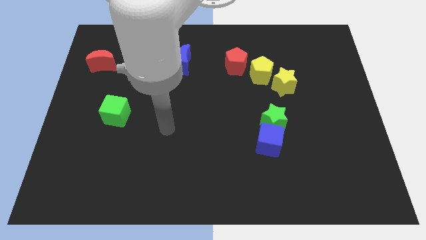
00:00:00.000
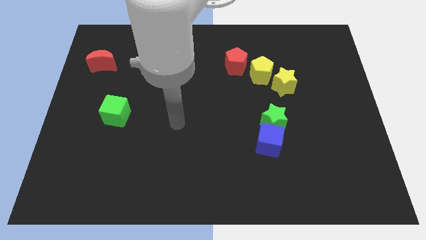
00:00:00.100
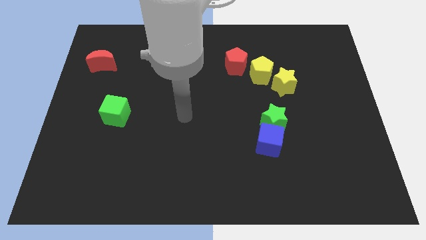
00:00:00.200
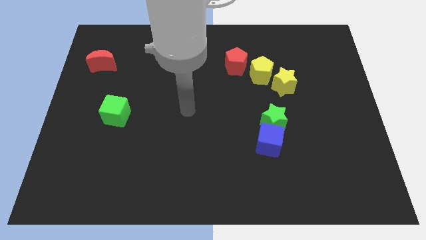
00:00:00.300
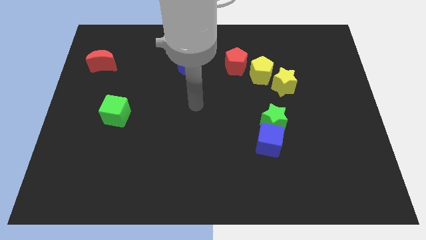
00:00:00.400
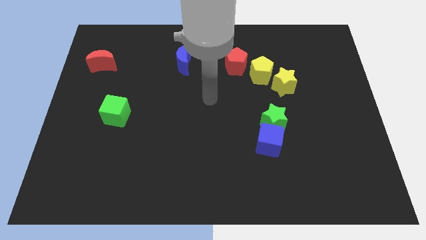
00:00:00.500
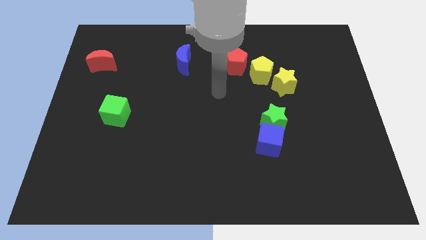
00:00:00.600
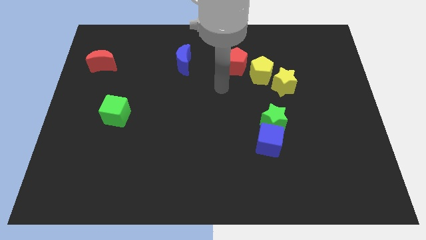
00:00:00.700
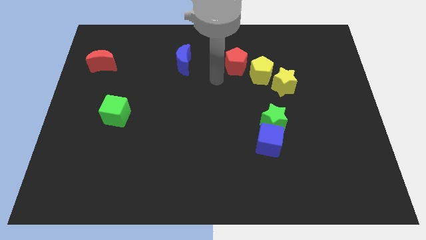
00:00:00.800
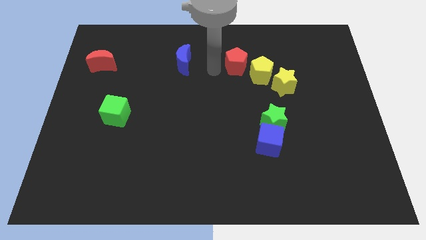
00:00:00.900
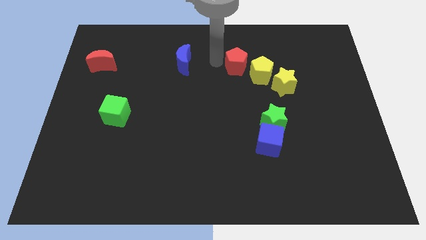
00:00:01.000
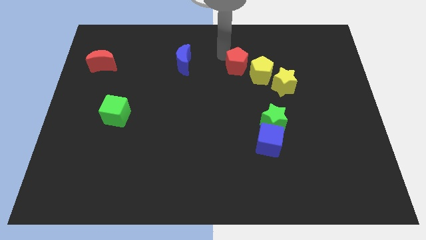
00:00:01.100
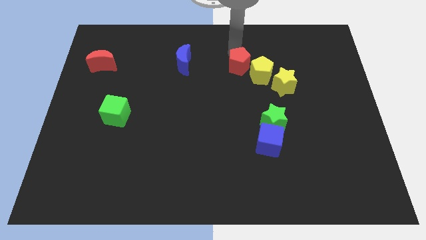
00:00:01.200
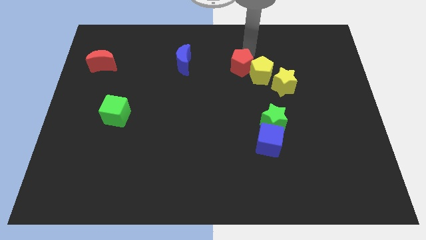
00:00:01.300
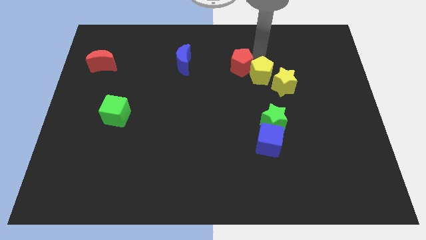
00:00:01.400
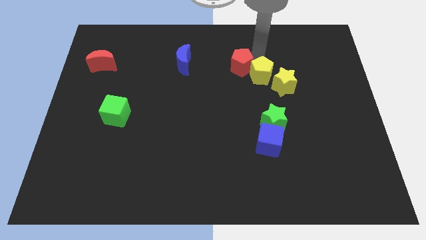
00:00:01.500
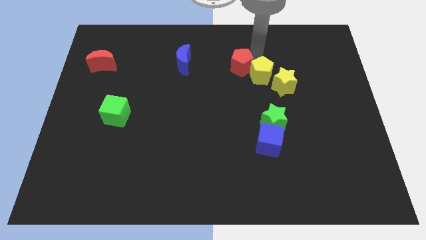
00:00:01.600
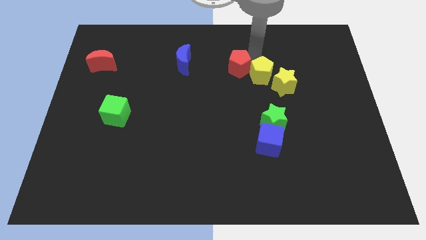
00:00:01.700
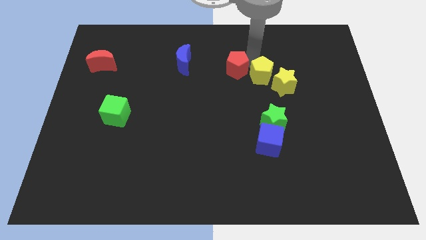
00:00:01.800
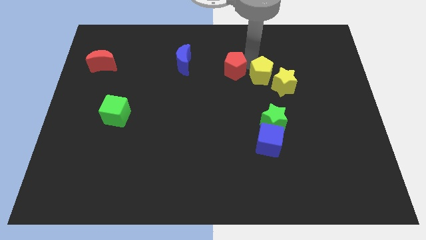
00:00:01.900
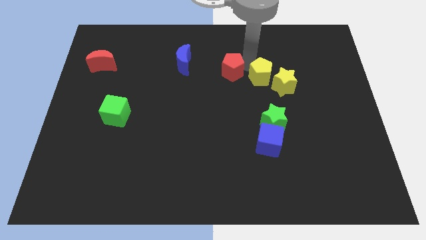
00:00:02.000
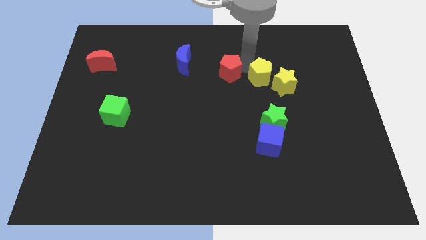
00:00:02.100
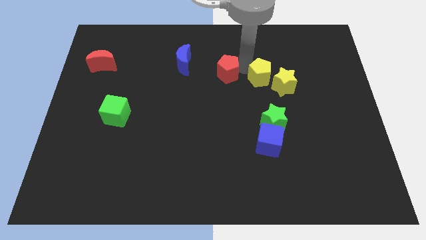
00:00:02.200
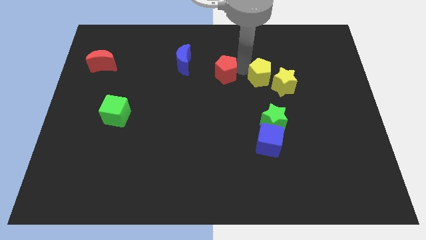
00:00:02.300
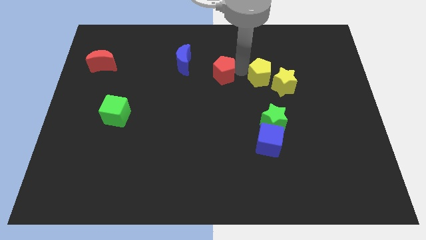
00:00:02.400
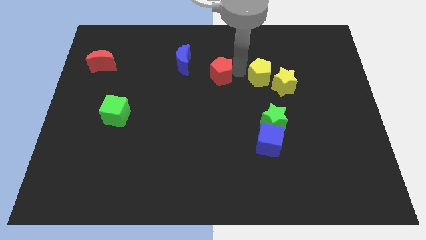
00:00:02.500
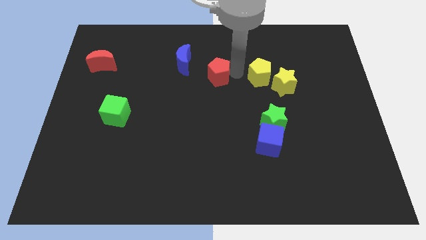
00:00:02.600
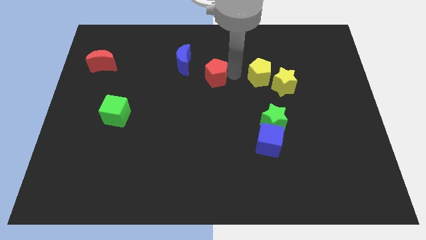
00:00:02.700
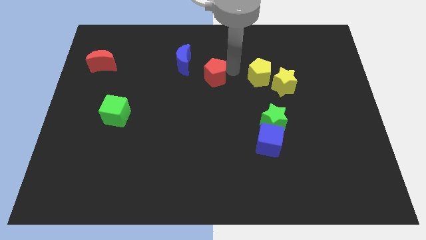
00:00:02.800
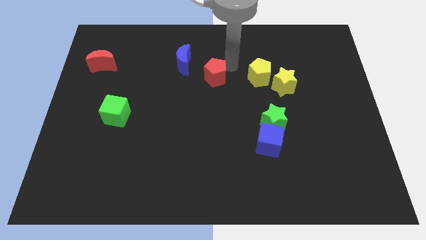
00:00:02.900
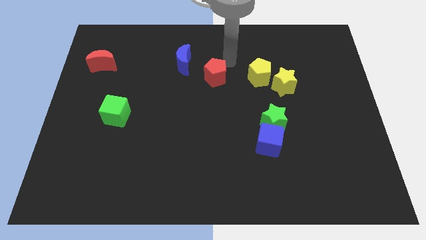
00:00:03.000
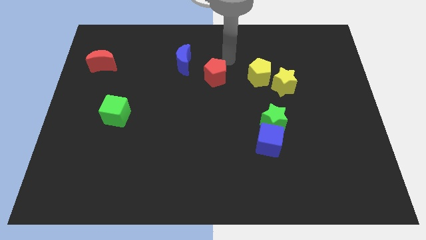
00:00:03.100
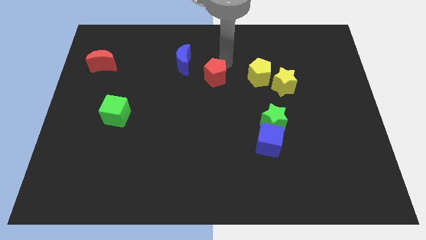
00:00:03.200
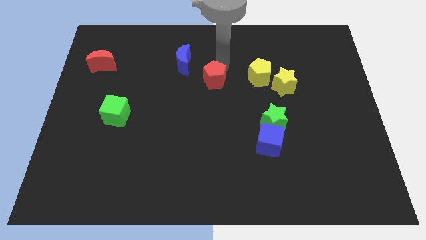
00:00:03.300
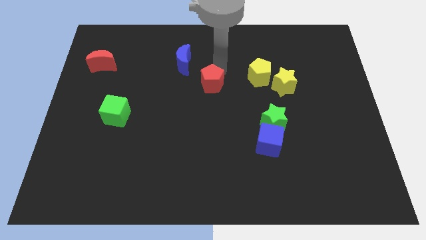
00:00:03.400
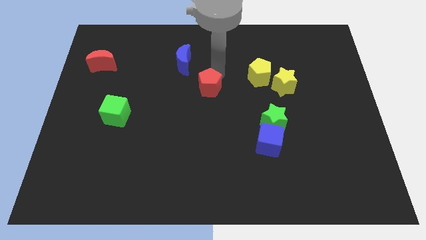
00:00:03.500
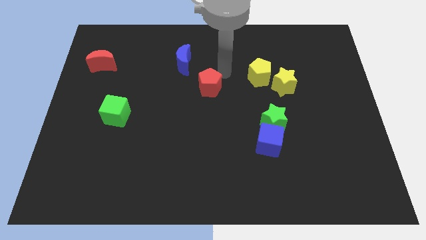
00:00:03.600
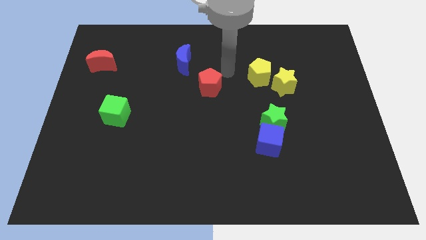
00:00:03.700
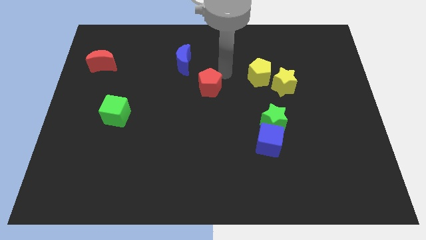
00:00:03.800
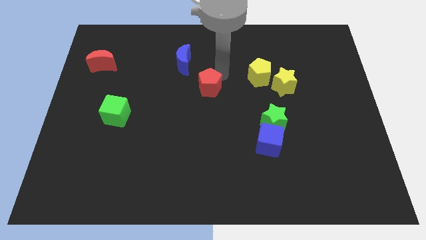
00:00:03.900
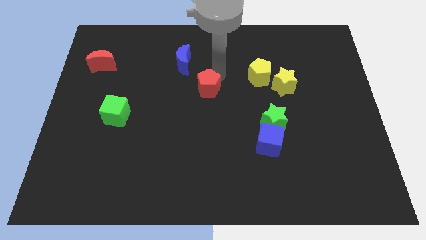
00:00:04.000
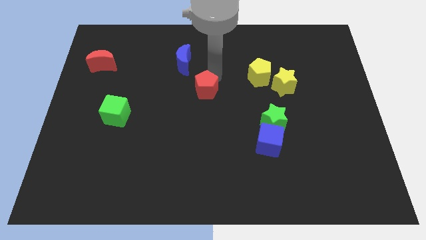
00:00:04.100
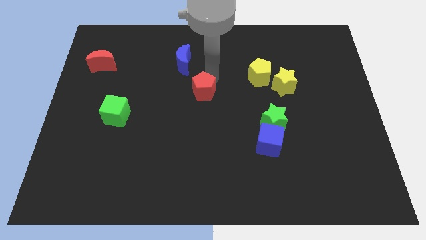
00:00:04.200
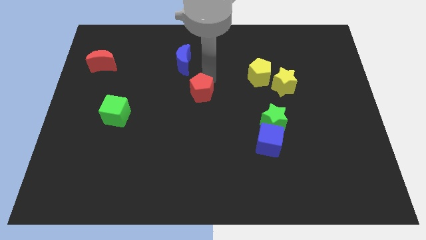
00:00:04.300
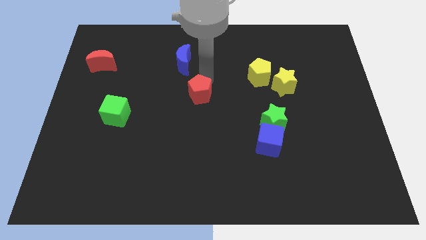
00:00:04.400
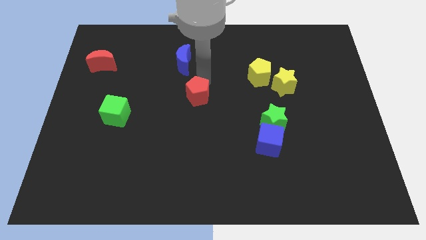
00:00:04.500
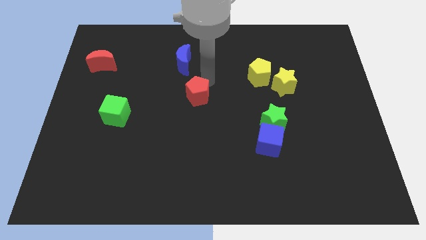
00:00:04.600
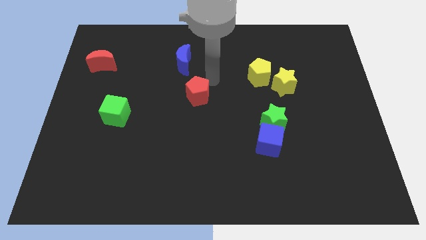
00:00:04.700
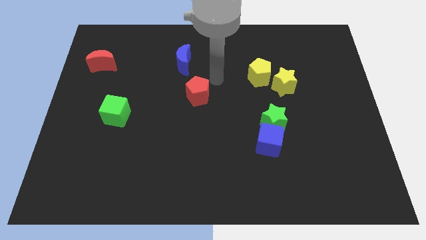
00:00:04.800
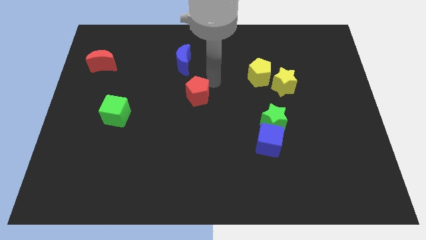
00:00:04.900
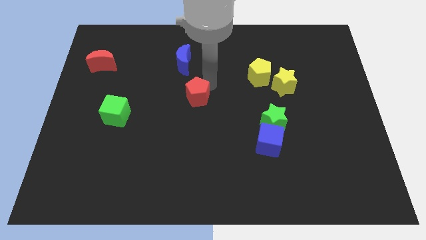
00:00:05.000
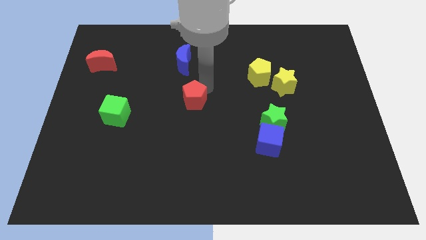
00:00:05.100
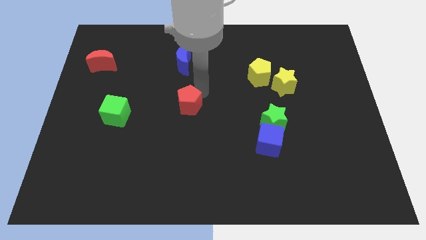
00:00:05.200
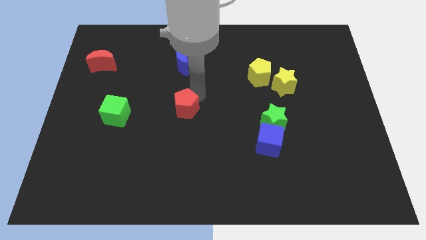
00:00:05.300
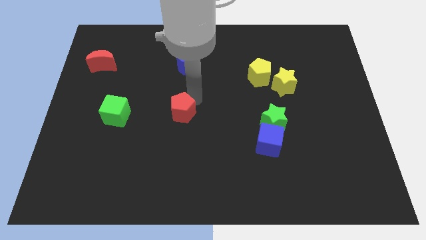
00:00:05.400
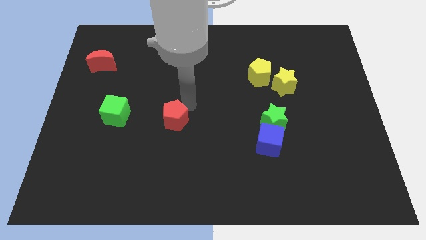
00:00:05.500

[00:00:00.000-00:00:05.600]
push the red pentagon diagonally down and left

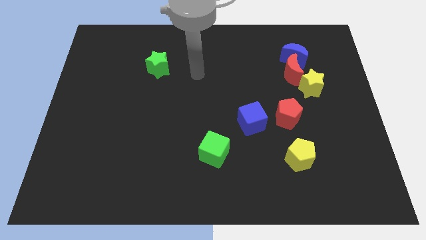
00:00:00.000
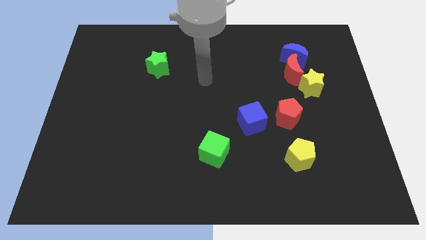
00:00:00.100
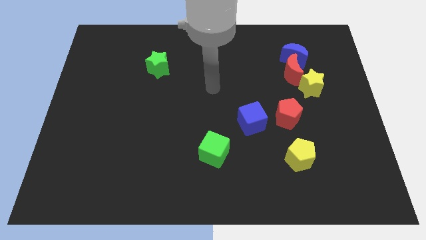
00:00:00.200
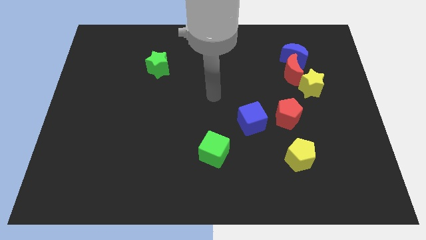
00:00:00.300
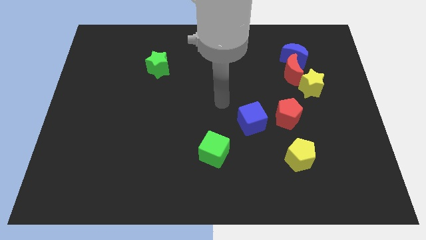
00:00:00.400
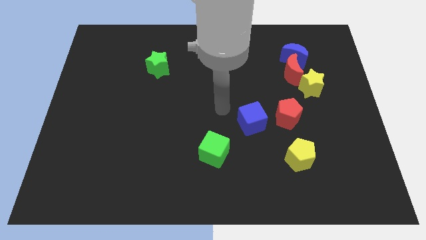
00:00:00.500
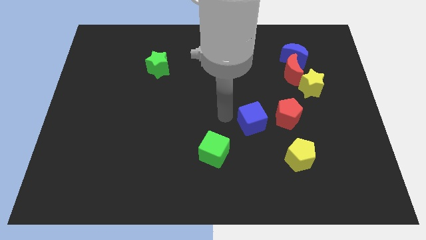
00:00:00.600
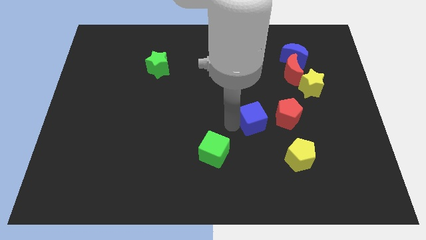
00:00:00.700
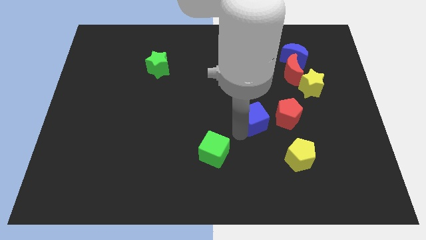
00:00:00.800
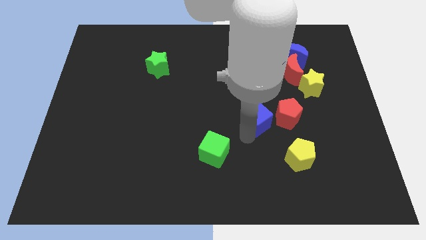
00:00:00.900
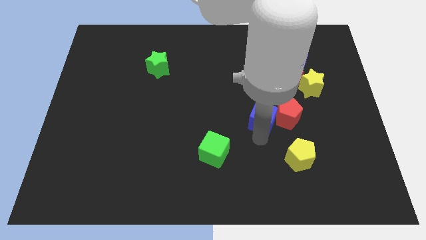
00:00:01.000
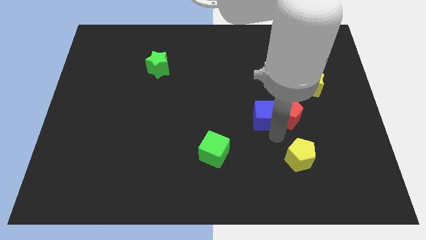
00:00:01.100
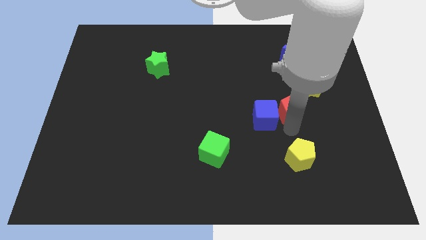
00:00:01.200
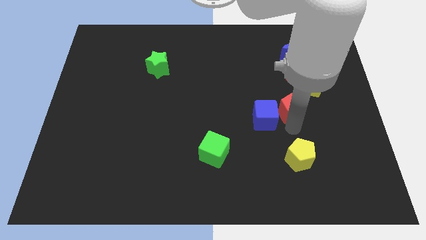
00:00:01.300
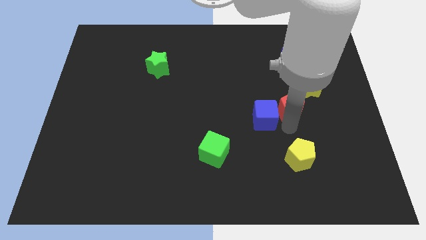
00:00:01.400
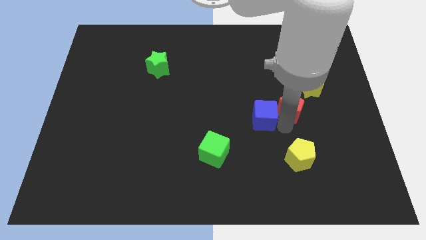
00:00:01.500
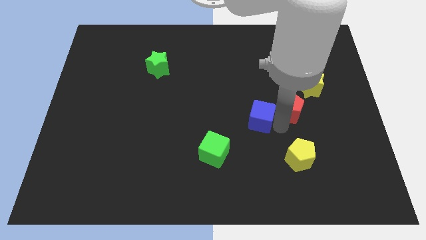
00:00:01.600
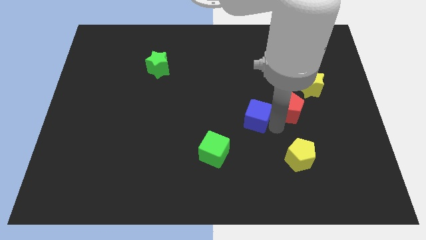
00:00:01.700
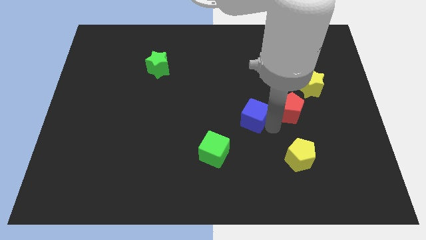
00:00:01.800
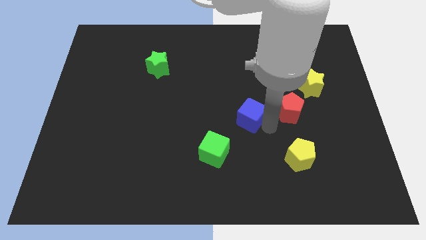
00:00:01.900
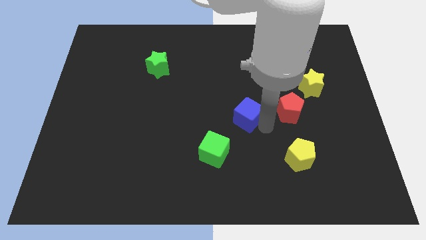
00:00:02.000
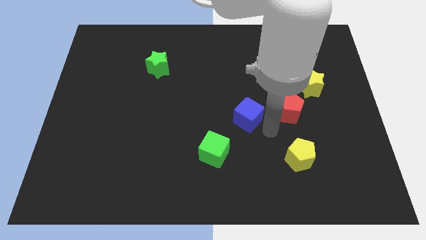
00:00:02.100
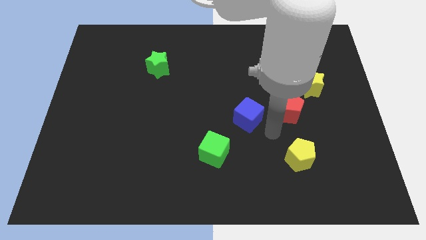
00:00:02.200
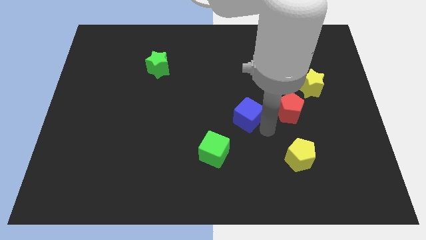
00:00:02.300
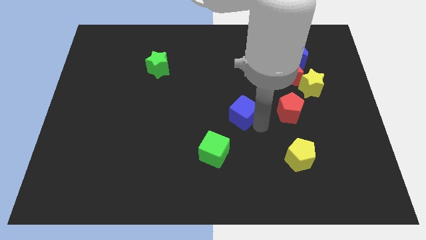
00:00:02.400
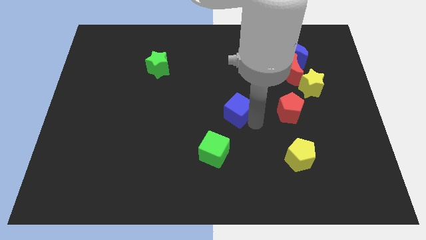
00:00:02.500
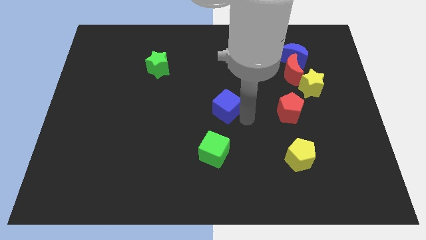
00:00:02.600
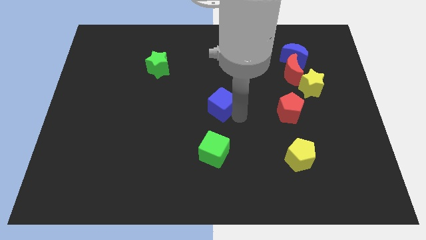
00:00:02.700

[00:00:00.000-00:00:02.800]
slide the blue cube a bit up and left
